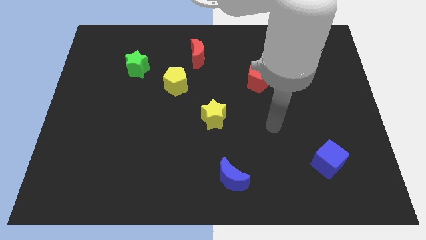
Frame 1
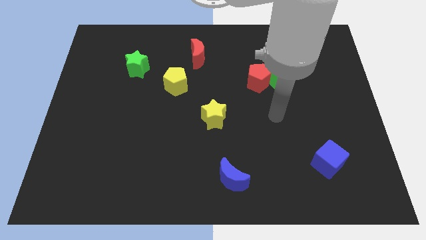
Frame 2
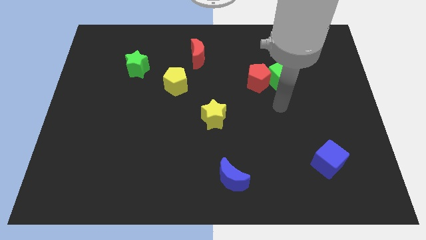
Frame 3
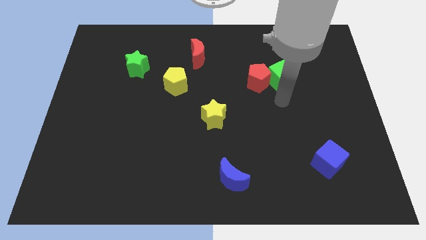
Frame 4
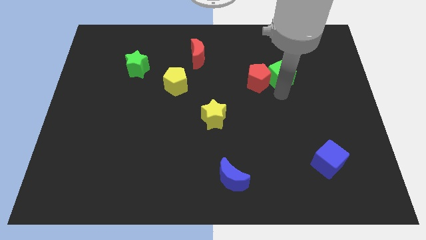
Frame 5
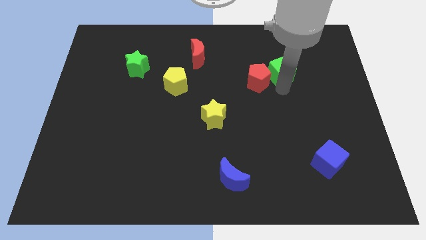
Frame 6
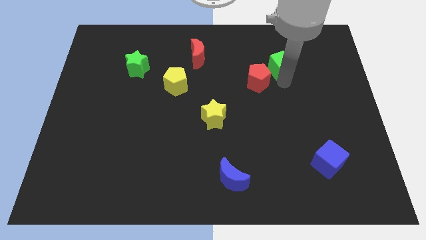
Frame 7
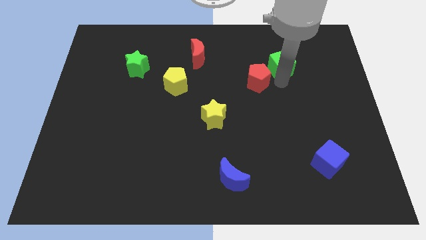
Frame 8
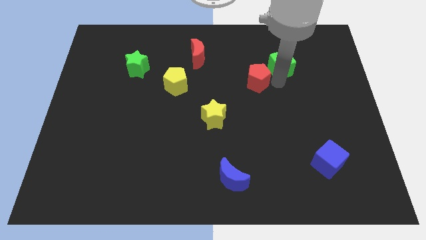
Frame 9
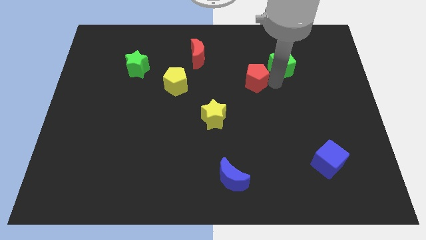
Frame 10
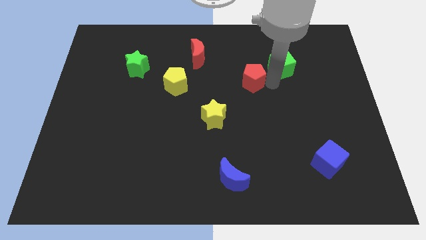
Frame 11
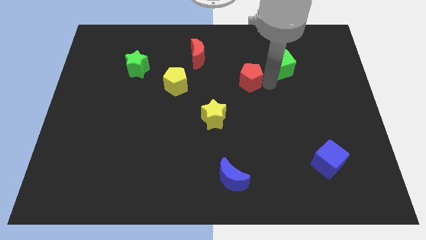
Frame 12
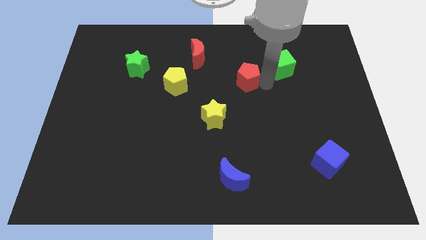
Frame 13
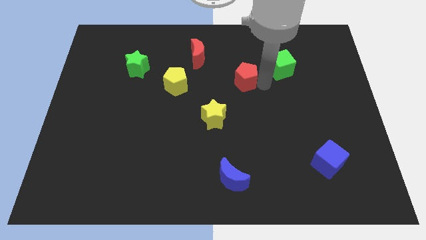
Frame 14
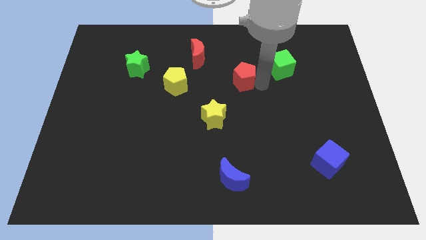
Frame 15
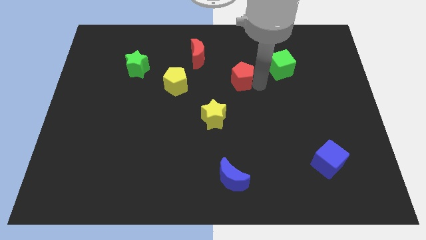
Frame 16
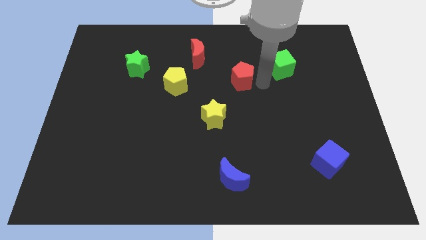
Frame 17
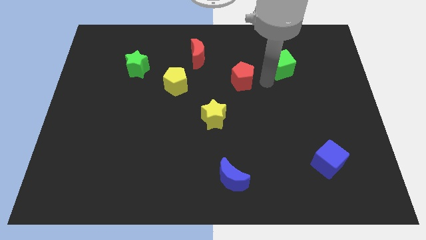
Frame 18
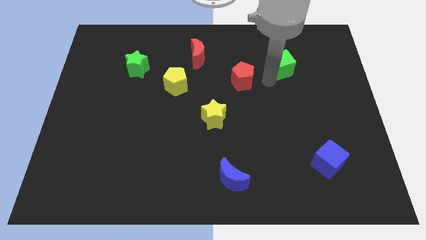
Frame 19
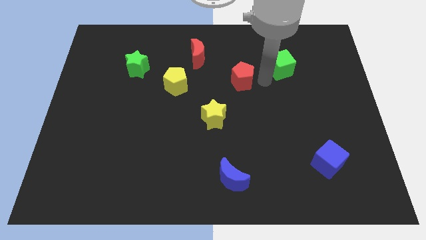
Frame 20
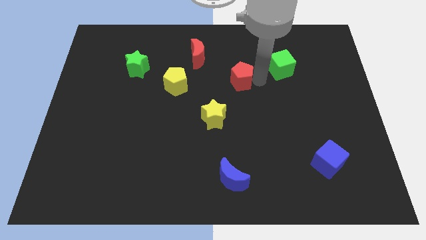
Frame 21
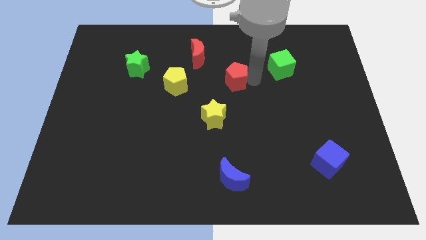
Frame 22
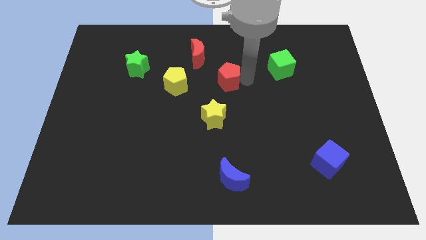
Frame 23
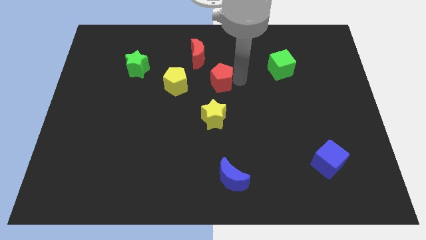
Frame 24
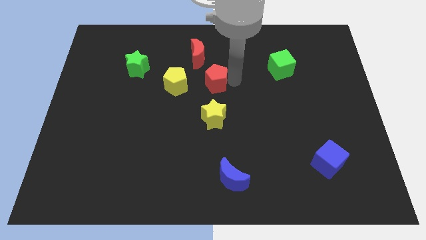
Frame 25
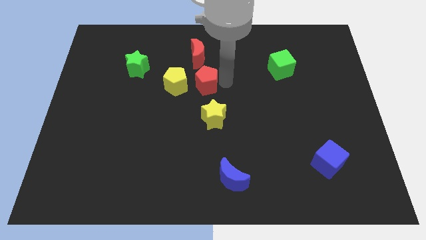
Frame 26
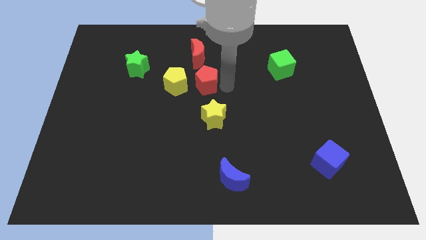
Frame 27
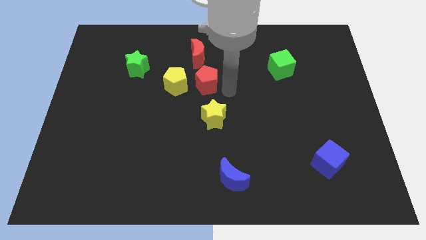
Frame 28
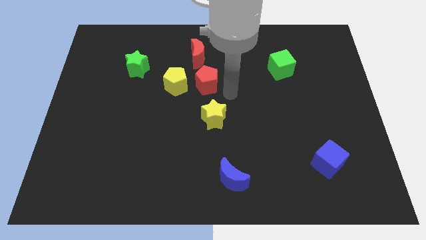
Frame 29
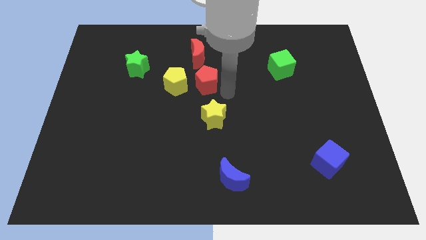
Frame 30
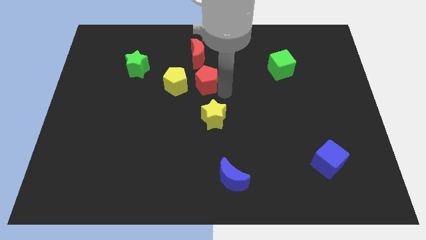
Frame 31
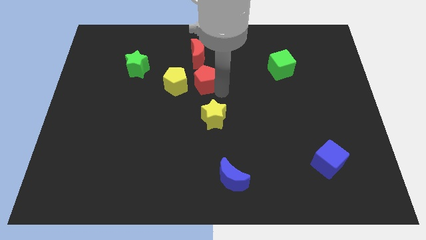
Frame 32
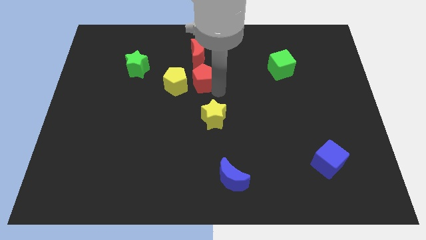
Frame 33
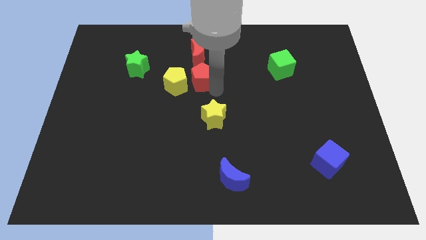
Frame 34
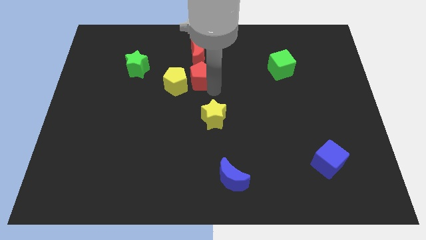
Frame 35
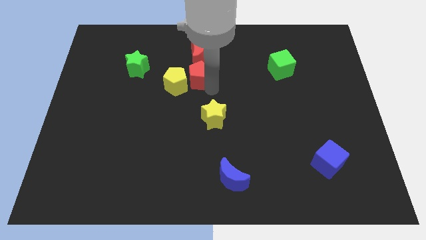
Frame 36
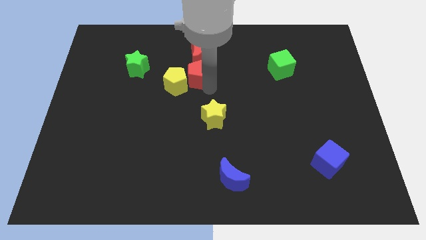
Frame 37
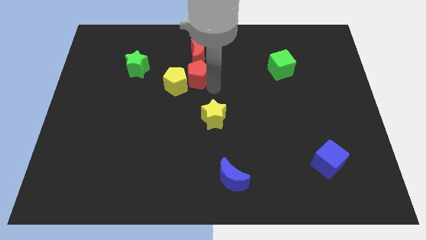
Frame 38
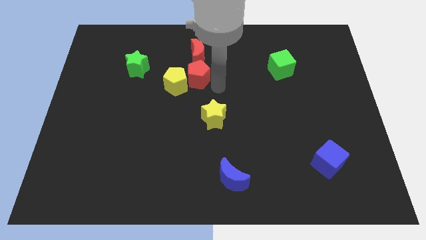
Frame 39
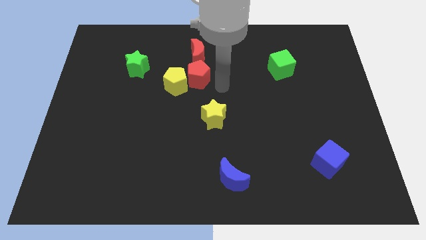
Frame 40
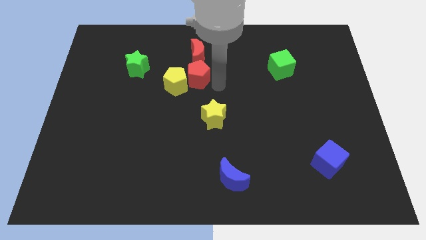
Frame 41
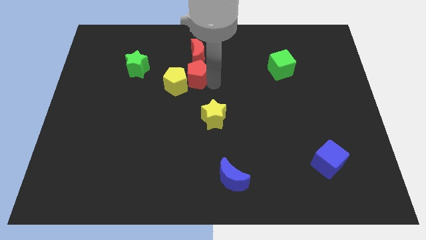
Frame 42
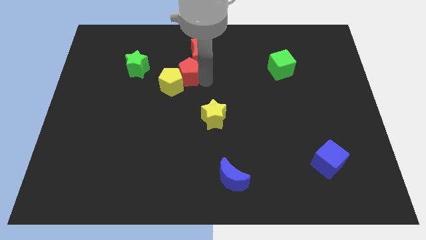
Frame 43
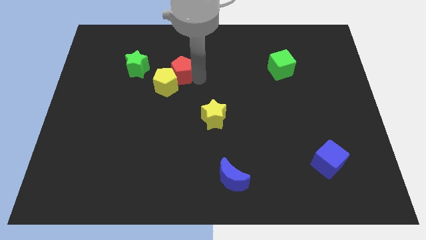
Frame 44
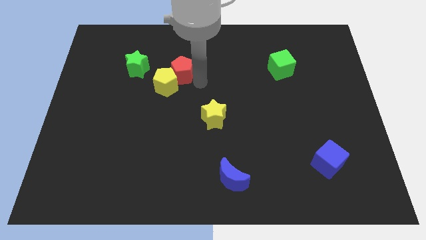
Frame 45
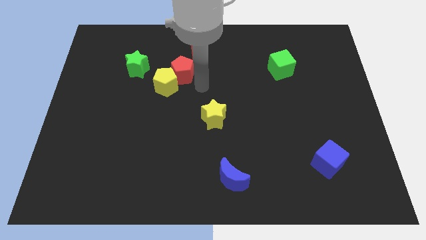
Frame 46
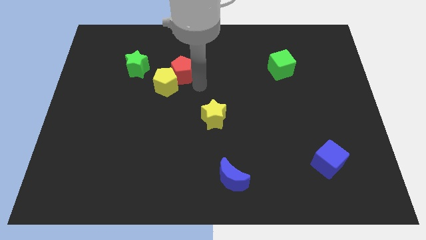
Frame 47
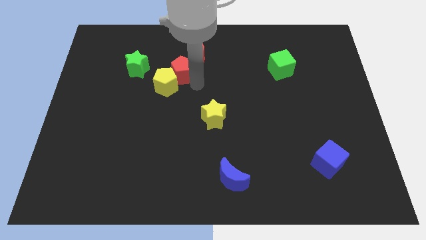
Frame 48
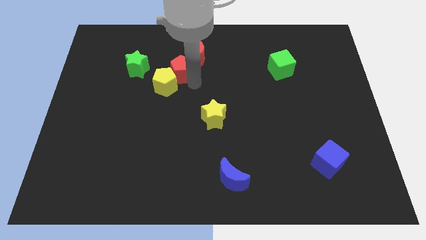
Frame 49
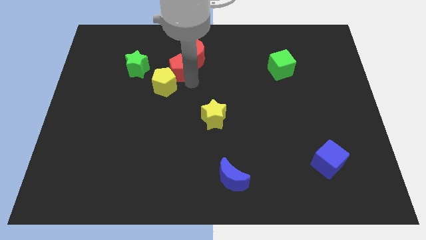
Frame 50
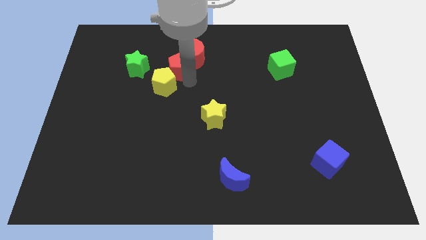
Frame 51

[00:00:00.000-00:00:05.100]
push the red pentagon just left of the red moon

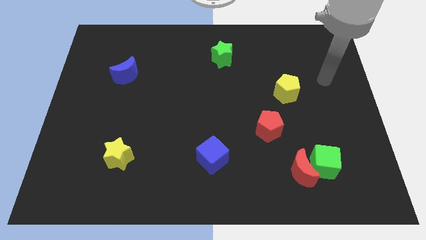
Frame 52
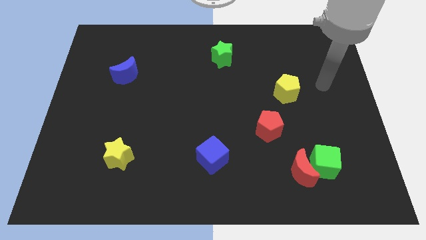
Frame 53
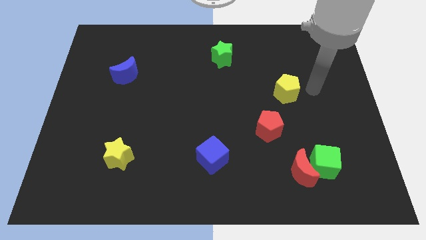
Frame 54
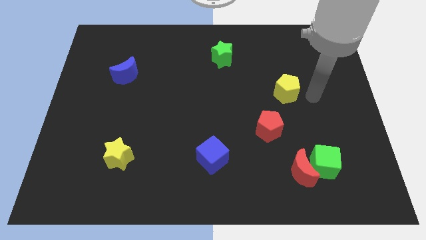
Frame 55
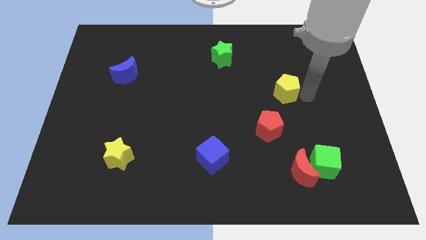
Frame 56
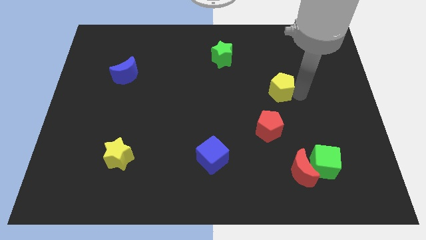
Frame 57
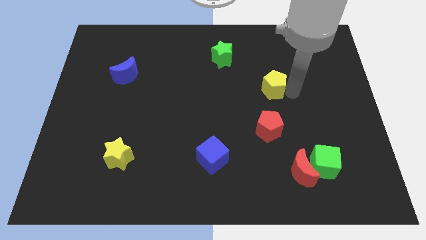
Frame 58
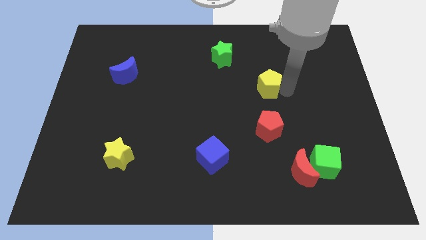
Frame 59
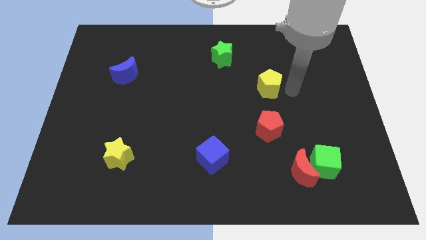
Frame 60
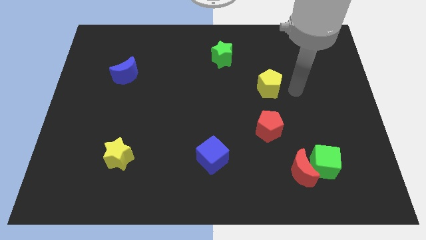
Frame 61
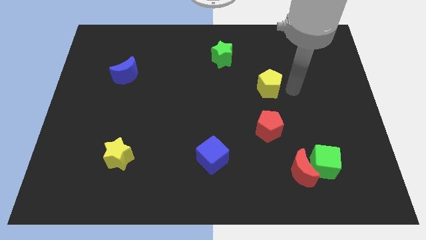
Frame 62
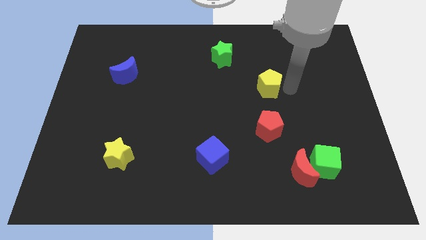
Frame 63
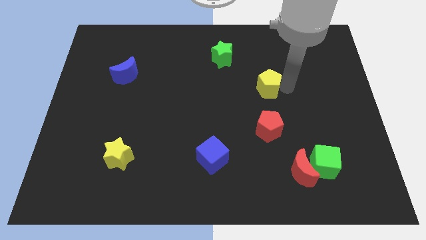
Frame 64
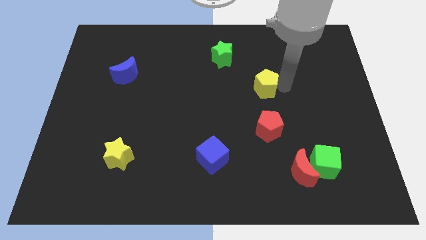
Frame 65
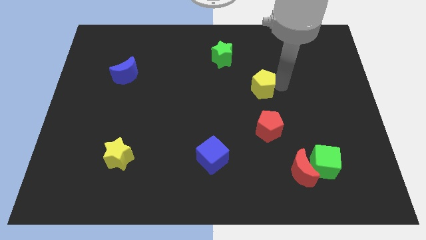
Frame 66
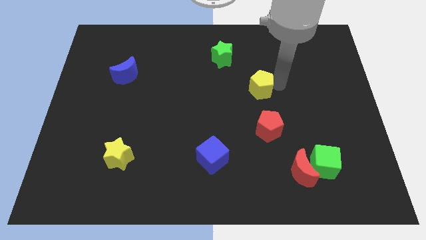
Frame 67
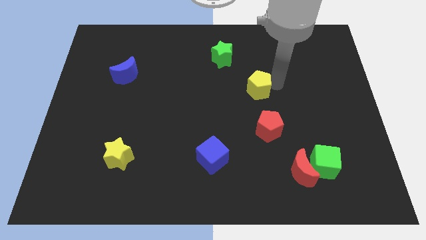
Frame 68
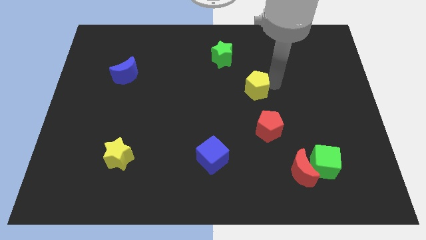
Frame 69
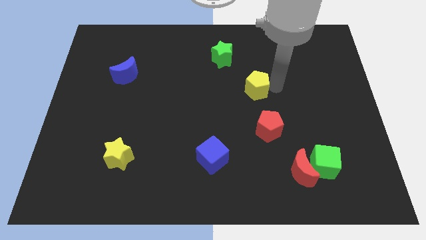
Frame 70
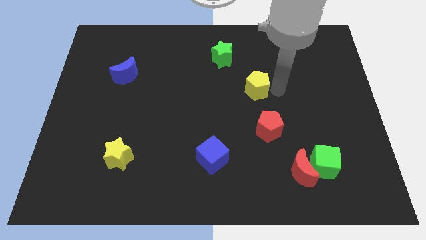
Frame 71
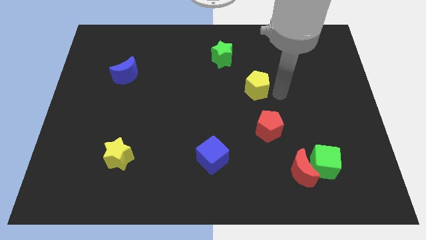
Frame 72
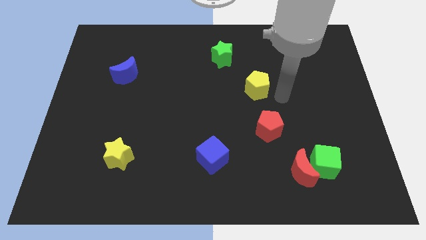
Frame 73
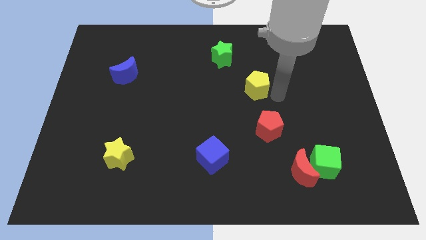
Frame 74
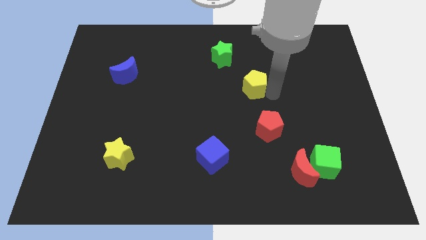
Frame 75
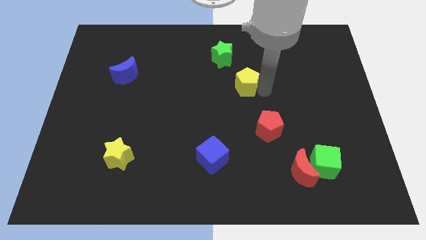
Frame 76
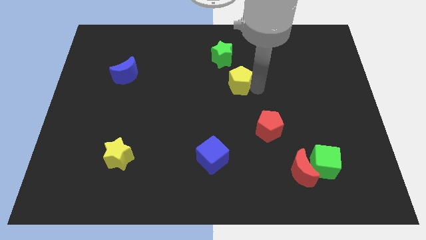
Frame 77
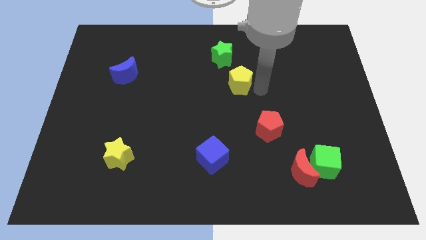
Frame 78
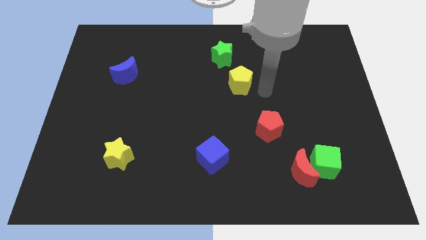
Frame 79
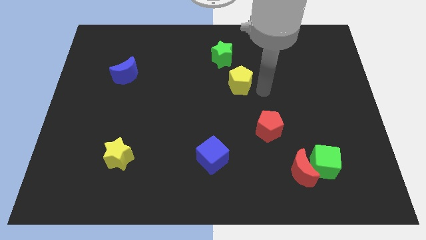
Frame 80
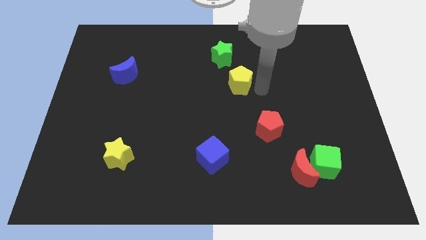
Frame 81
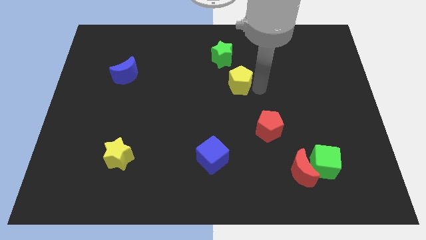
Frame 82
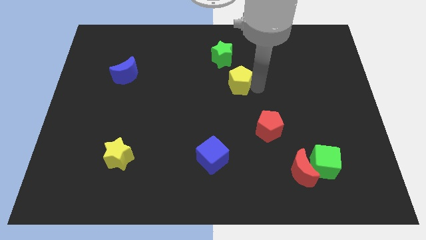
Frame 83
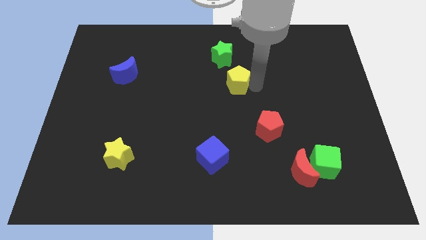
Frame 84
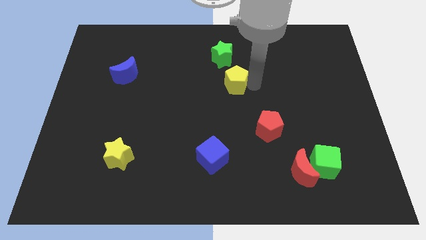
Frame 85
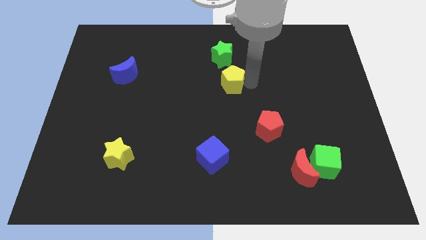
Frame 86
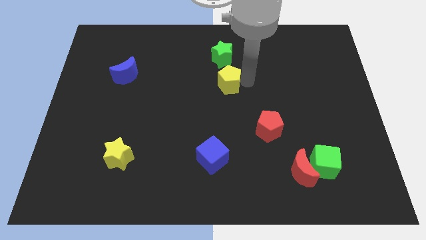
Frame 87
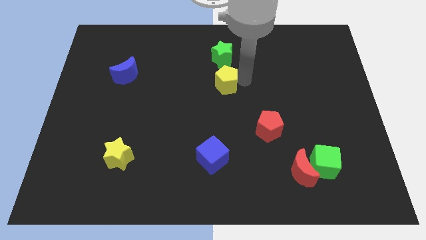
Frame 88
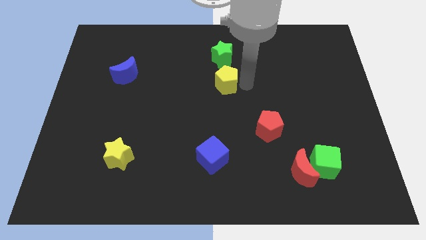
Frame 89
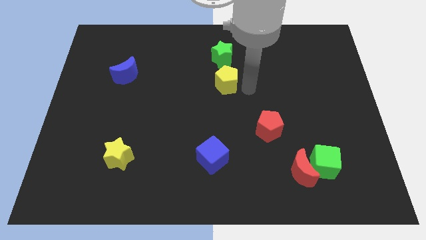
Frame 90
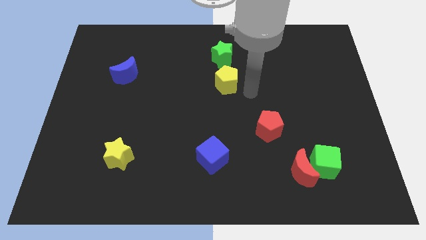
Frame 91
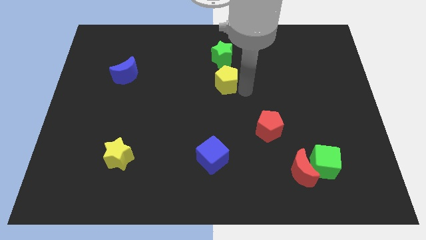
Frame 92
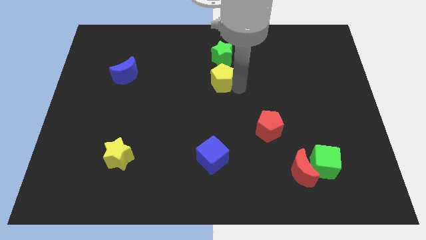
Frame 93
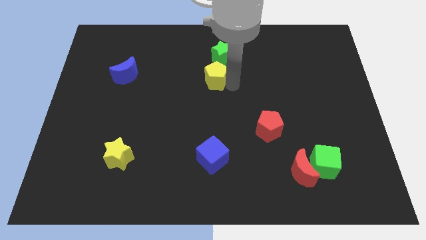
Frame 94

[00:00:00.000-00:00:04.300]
slide the yellow pentagon diagonally down and to the left of the green star
